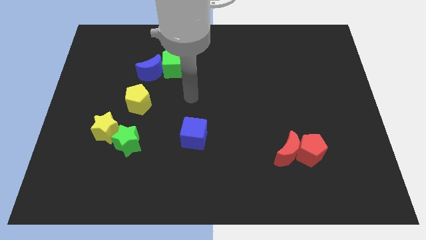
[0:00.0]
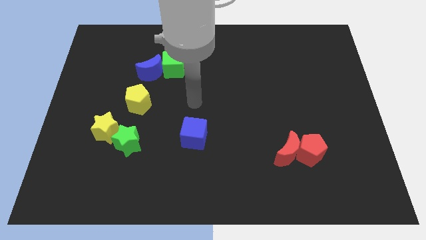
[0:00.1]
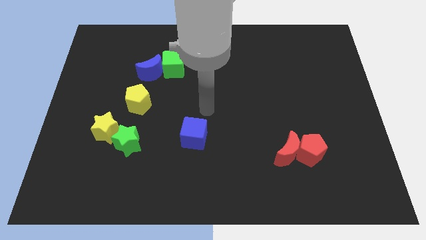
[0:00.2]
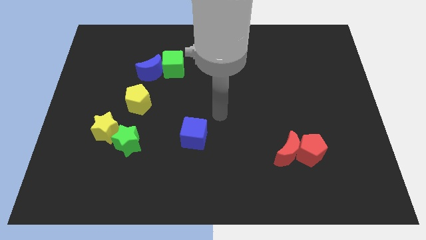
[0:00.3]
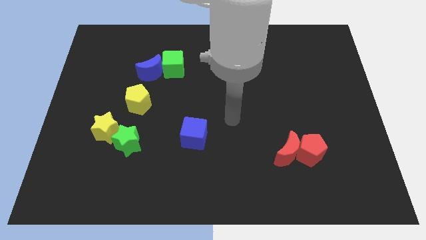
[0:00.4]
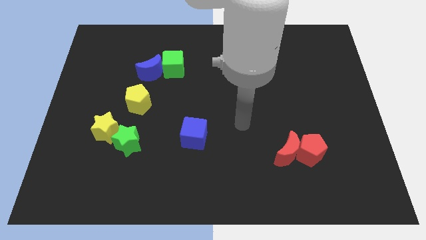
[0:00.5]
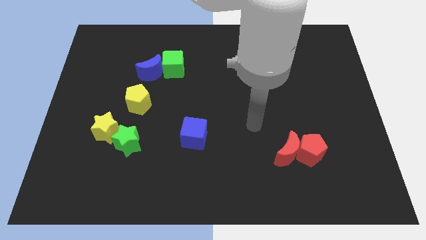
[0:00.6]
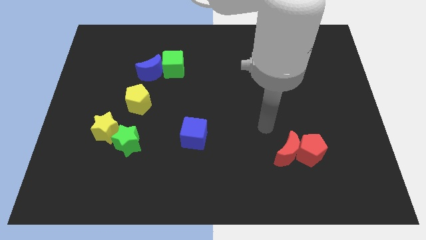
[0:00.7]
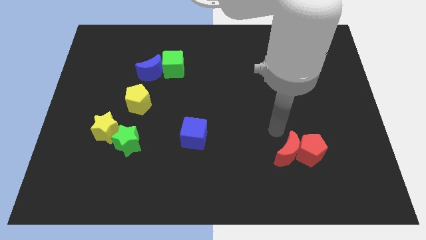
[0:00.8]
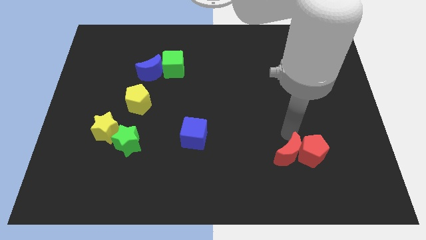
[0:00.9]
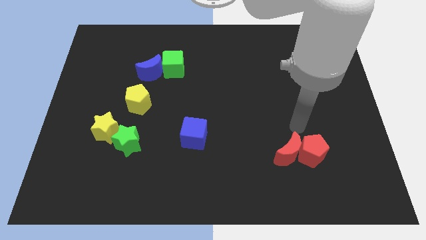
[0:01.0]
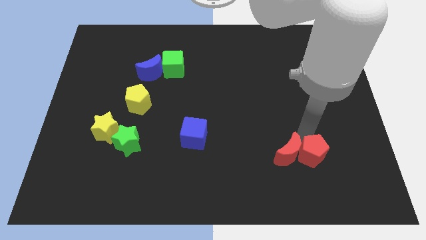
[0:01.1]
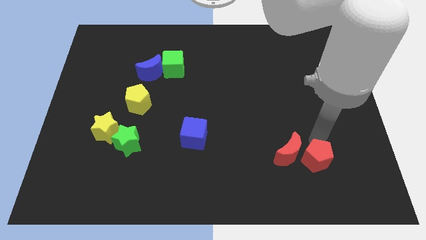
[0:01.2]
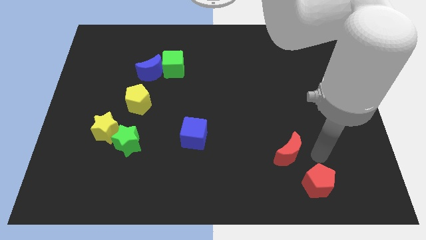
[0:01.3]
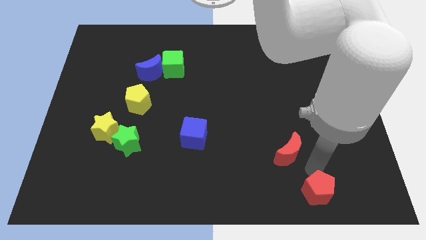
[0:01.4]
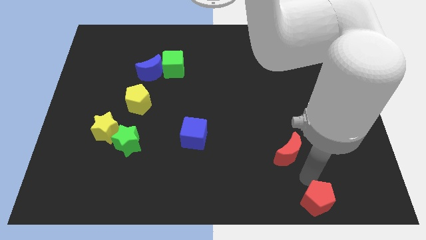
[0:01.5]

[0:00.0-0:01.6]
pull the red moon apart from the red pentagon

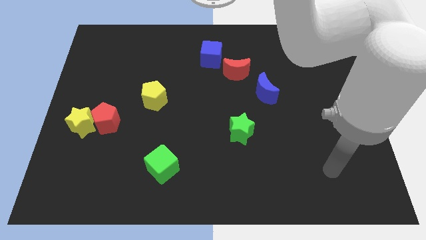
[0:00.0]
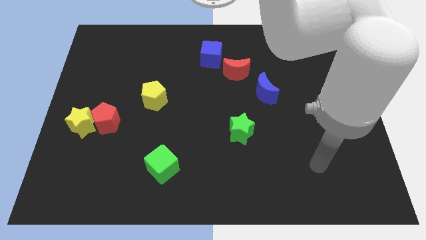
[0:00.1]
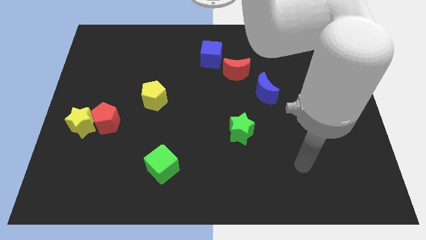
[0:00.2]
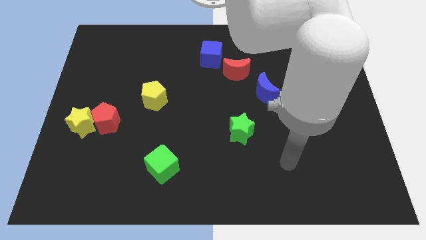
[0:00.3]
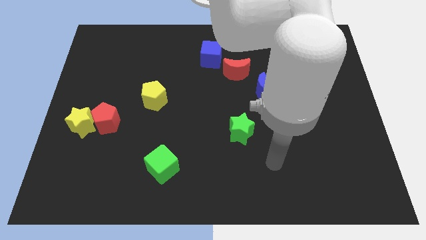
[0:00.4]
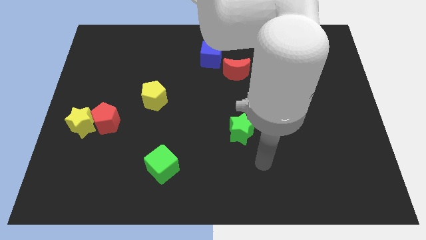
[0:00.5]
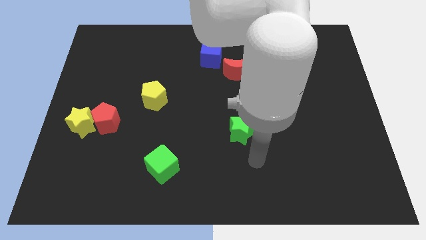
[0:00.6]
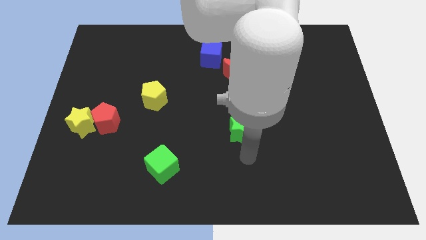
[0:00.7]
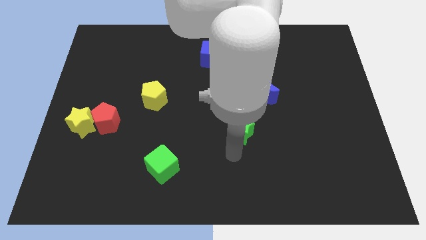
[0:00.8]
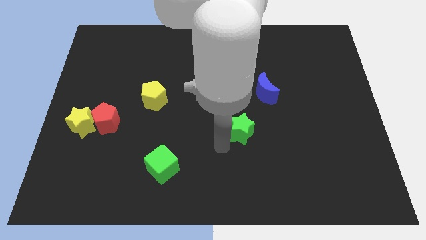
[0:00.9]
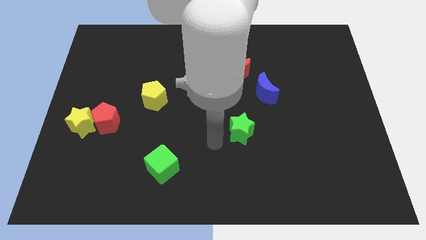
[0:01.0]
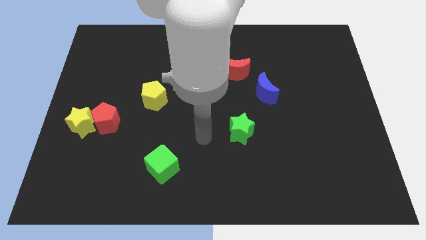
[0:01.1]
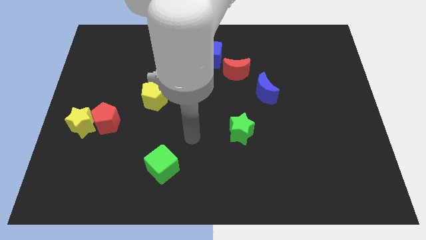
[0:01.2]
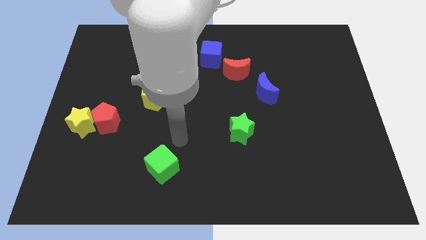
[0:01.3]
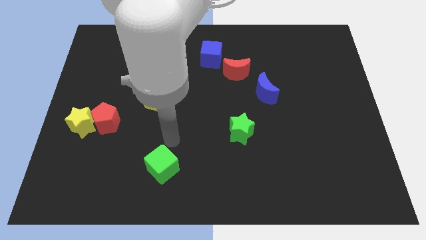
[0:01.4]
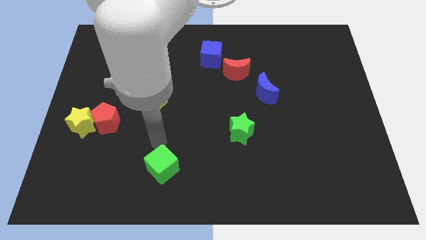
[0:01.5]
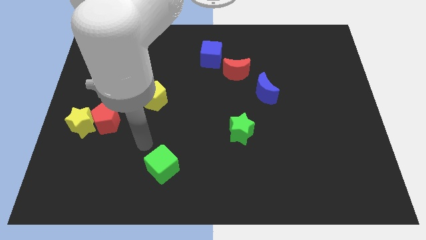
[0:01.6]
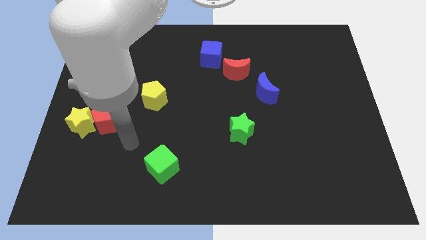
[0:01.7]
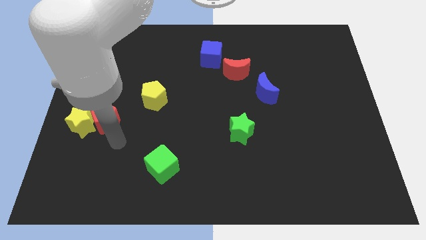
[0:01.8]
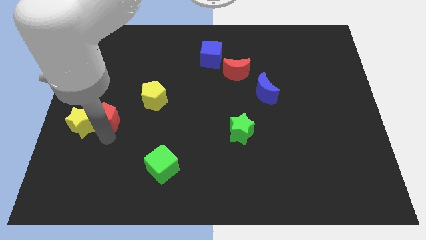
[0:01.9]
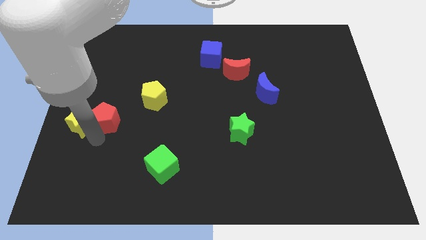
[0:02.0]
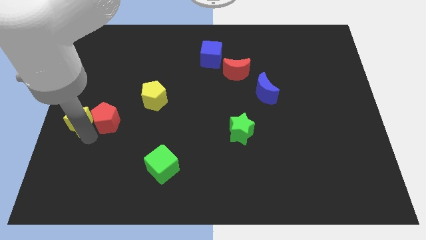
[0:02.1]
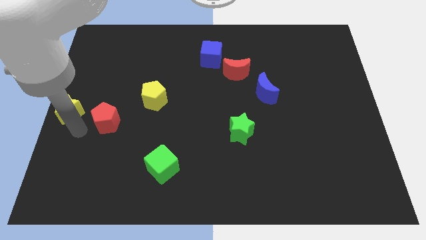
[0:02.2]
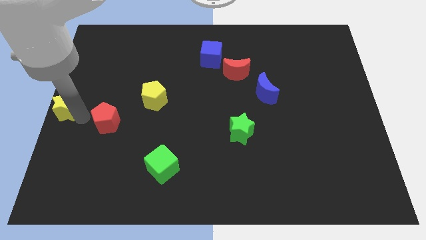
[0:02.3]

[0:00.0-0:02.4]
move the red pentagon away from the yellow star

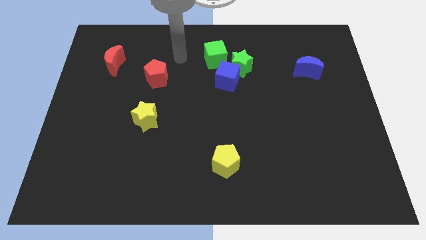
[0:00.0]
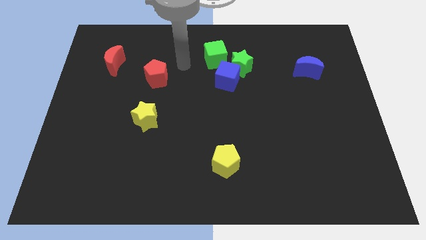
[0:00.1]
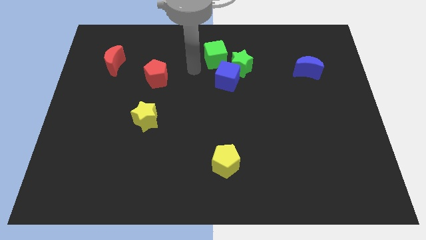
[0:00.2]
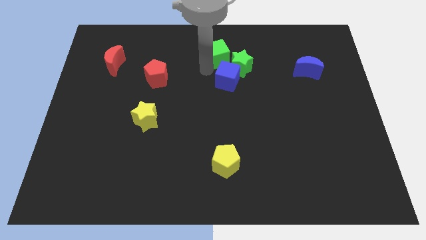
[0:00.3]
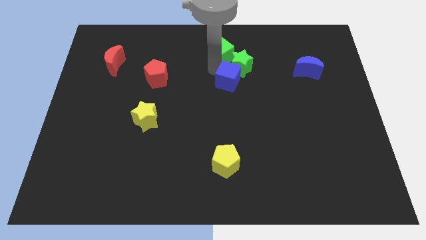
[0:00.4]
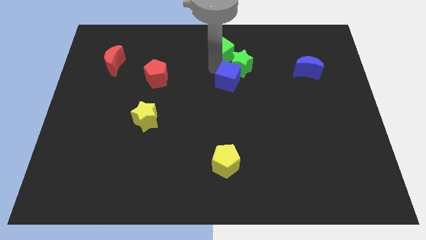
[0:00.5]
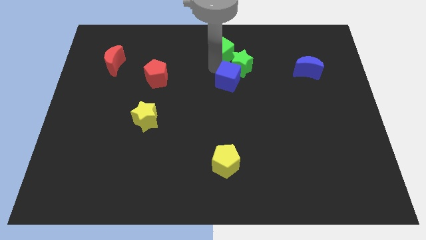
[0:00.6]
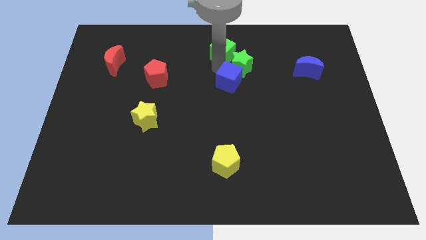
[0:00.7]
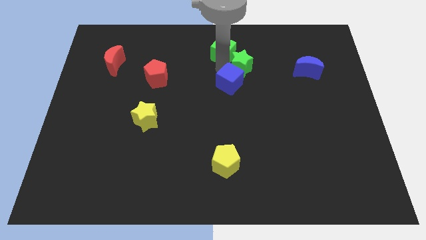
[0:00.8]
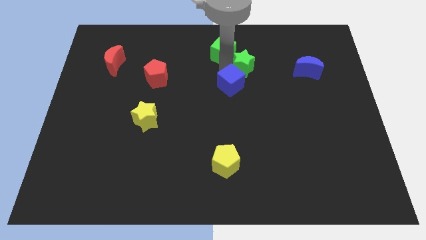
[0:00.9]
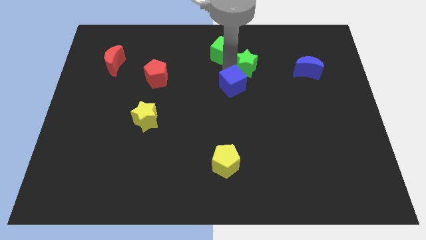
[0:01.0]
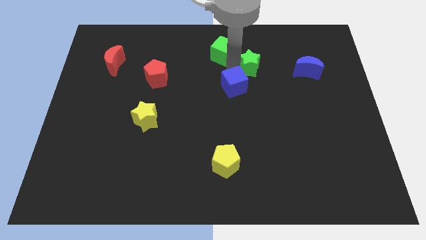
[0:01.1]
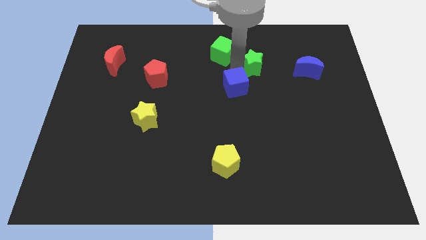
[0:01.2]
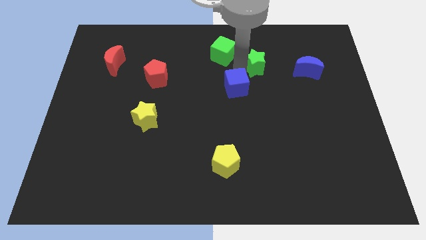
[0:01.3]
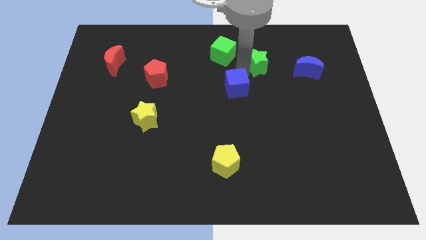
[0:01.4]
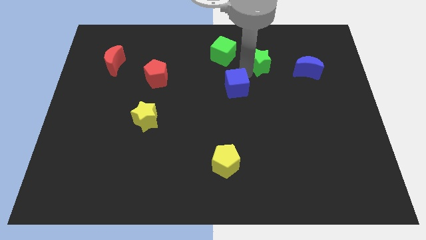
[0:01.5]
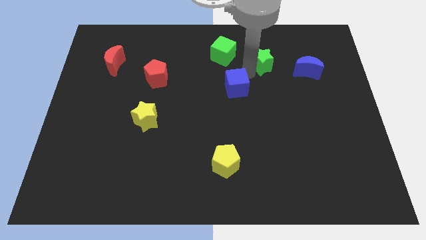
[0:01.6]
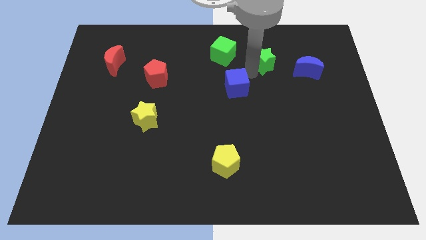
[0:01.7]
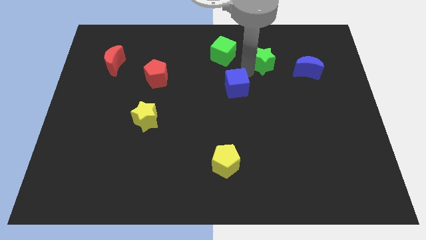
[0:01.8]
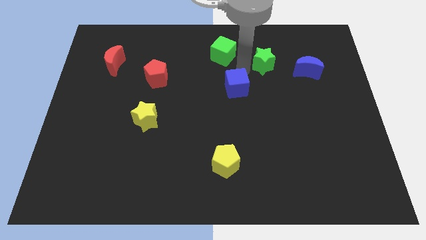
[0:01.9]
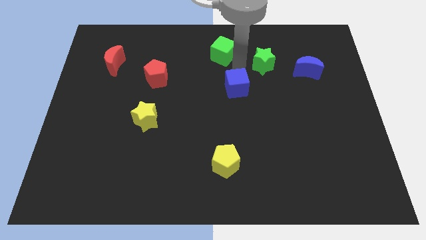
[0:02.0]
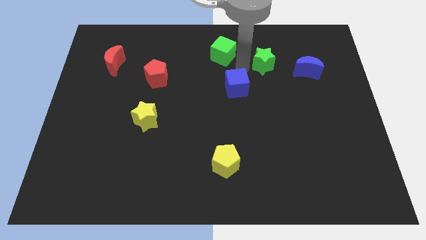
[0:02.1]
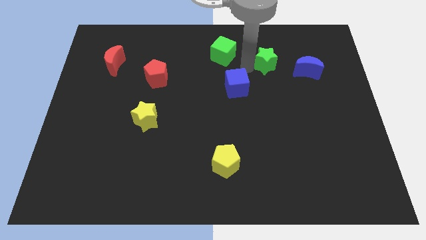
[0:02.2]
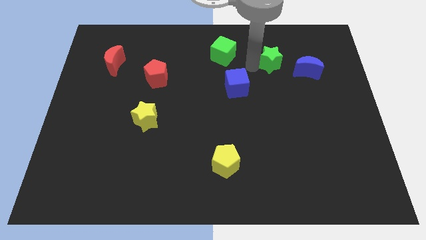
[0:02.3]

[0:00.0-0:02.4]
move the green star away from the blue cube and green cube

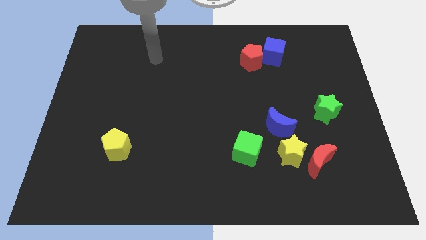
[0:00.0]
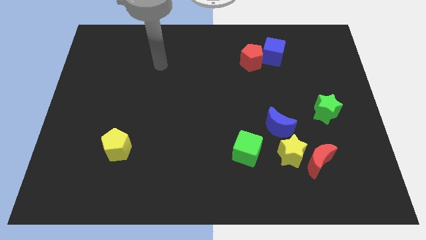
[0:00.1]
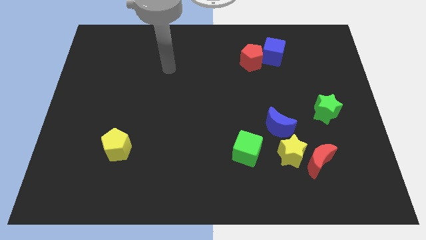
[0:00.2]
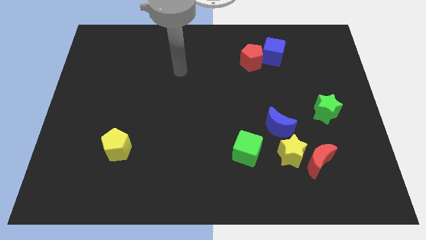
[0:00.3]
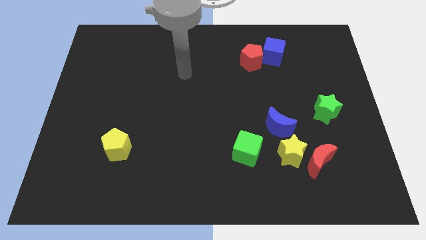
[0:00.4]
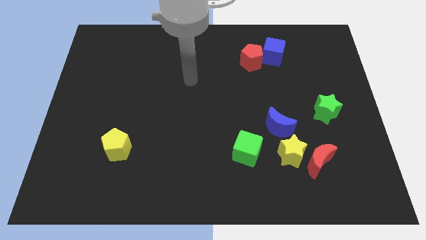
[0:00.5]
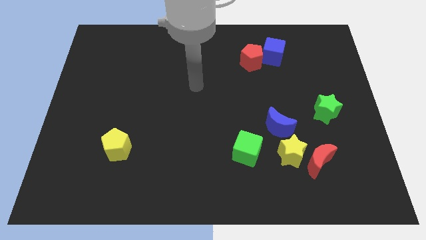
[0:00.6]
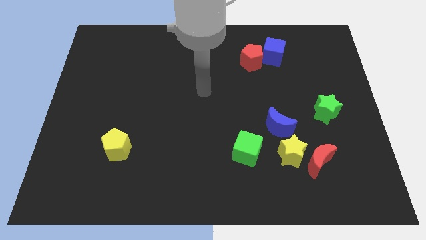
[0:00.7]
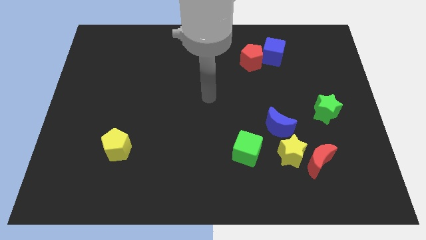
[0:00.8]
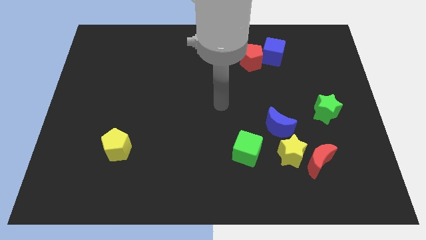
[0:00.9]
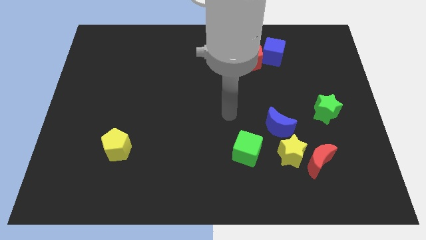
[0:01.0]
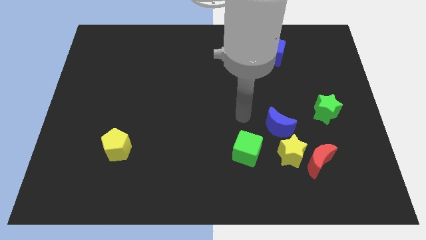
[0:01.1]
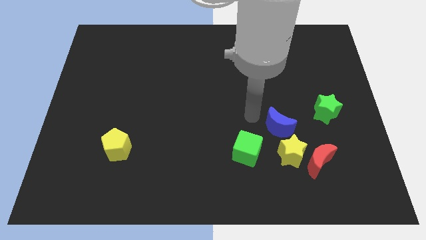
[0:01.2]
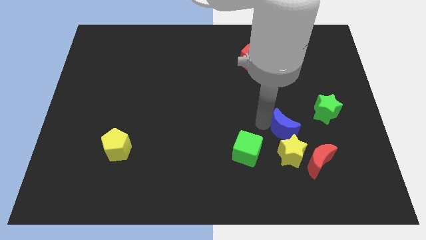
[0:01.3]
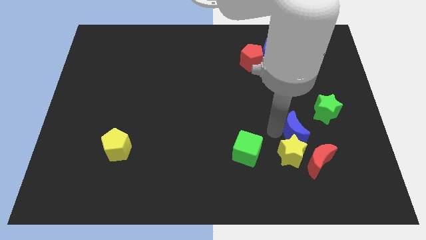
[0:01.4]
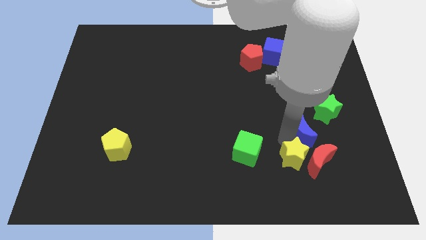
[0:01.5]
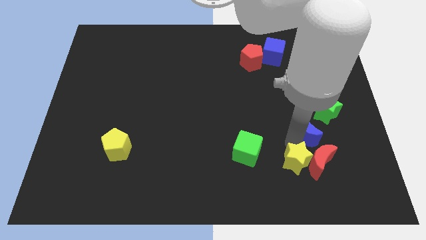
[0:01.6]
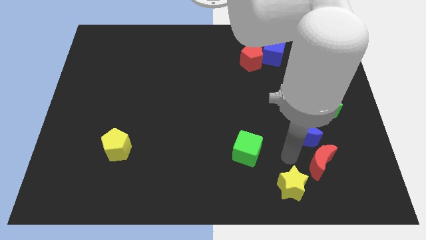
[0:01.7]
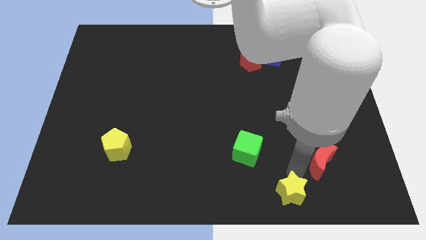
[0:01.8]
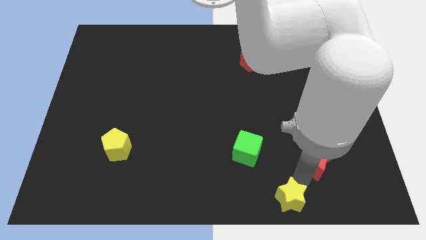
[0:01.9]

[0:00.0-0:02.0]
pull the red moon apart from the yellow star

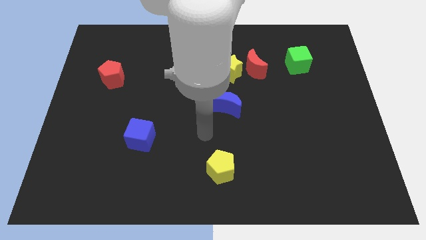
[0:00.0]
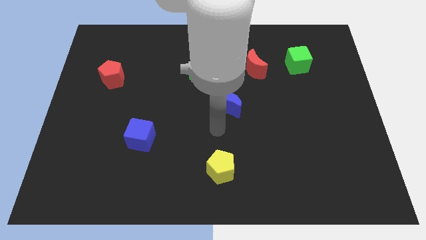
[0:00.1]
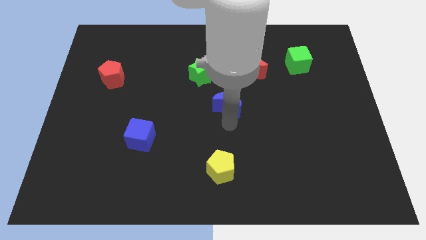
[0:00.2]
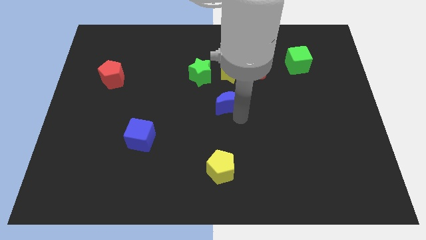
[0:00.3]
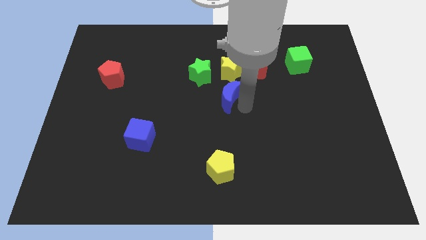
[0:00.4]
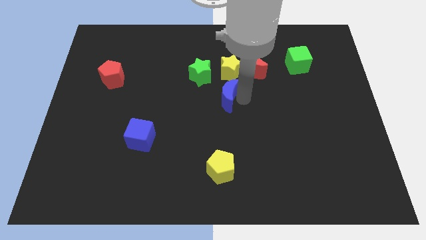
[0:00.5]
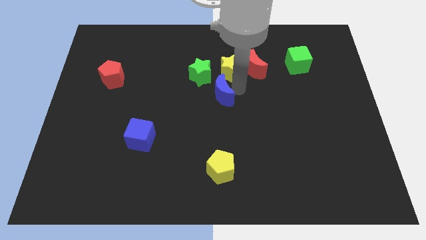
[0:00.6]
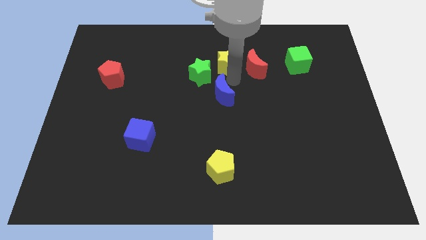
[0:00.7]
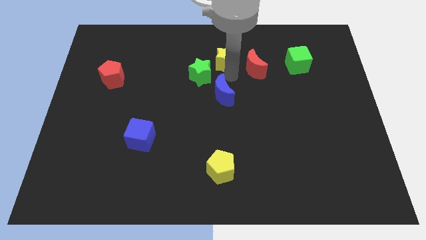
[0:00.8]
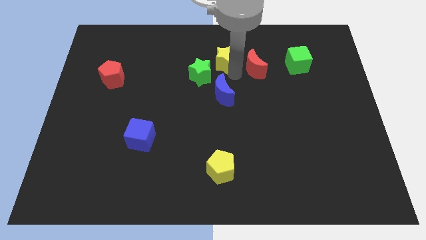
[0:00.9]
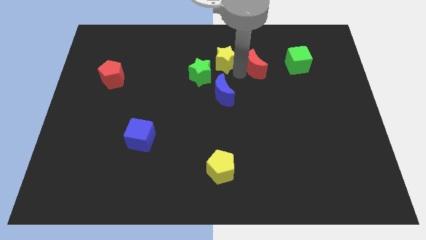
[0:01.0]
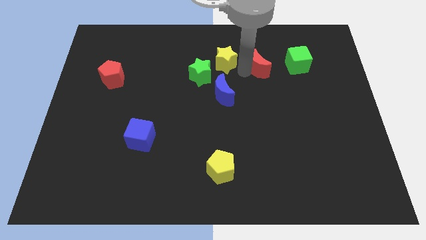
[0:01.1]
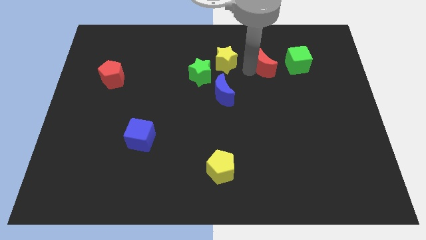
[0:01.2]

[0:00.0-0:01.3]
move the red moon away from the yellow star
